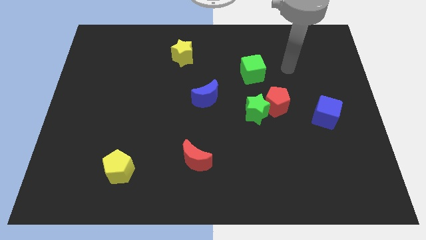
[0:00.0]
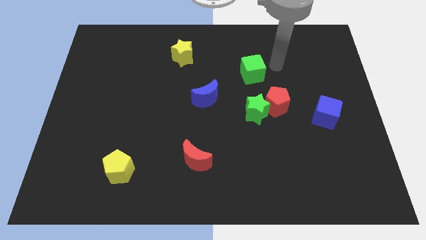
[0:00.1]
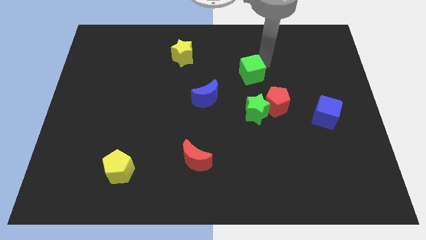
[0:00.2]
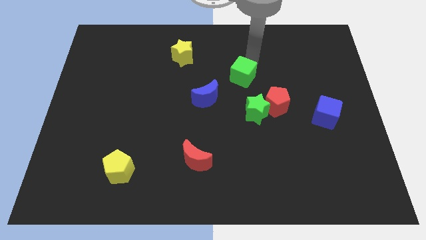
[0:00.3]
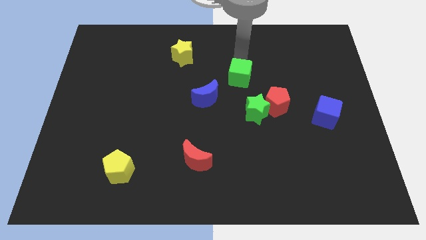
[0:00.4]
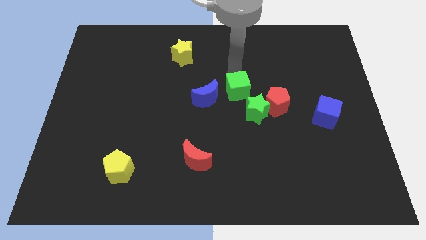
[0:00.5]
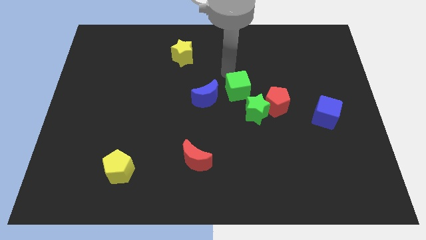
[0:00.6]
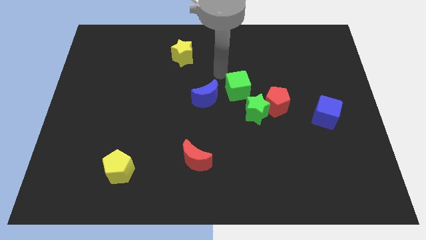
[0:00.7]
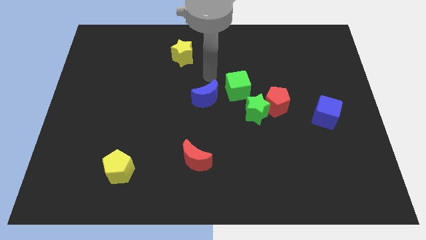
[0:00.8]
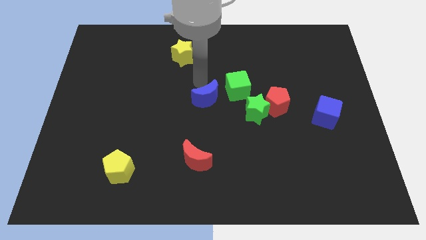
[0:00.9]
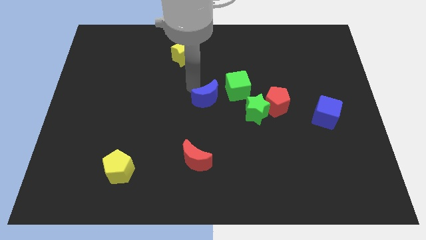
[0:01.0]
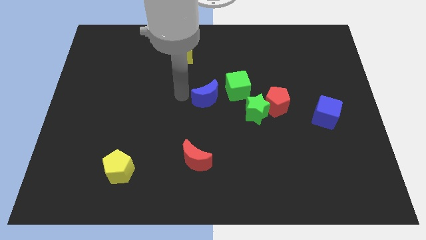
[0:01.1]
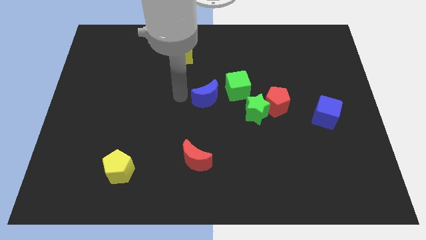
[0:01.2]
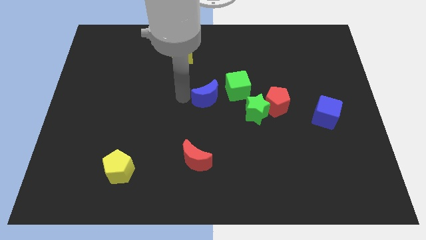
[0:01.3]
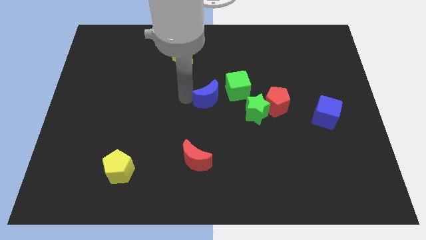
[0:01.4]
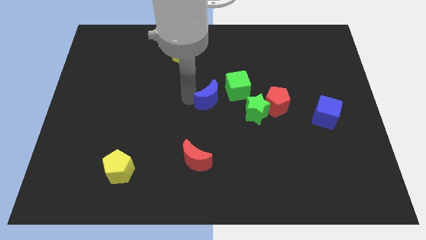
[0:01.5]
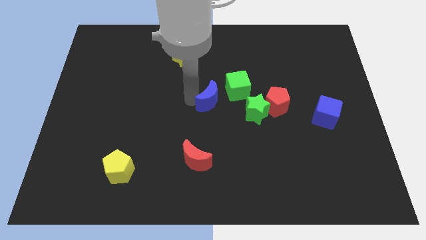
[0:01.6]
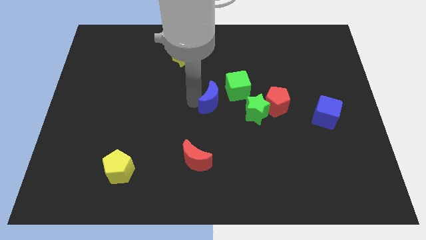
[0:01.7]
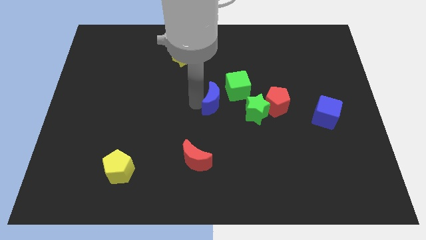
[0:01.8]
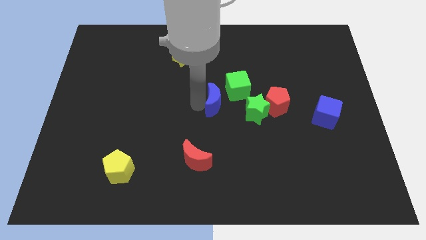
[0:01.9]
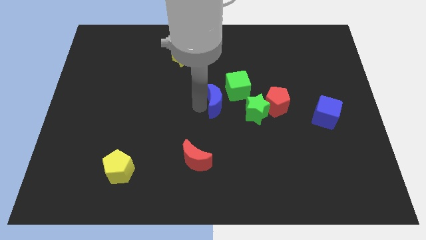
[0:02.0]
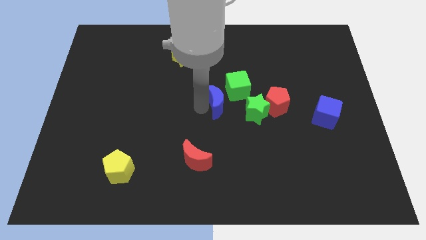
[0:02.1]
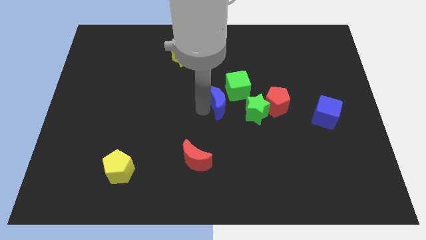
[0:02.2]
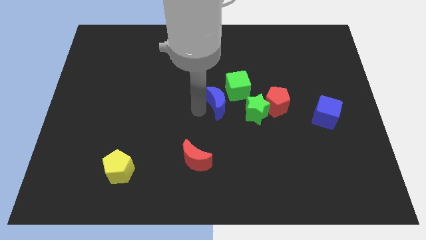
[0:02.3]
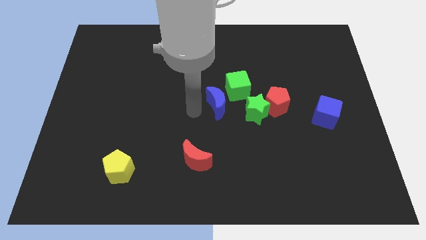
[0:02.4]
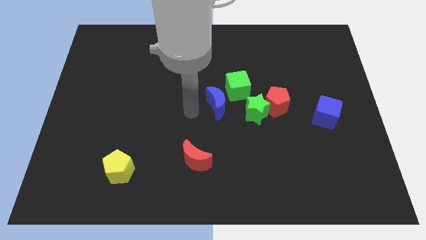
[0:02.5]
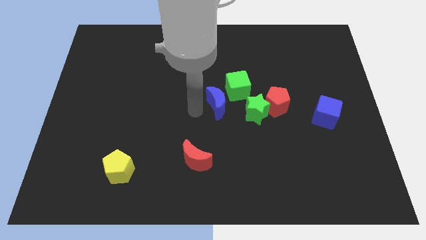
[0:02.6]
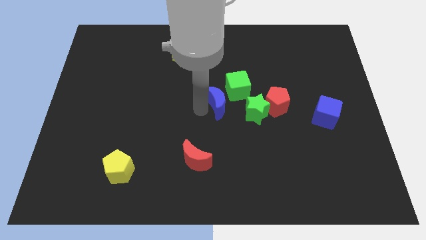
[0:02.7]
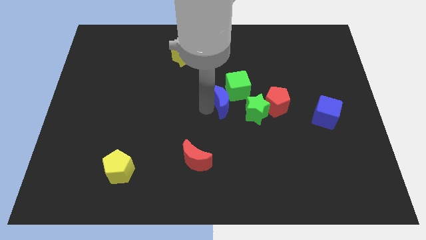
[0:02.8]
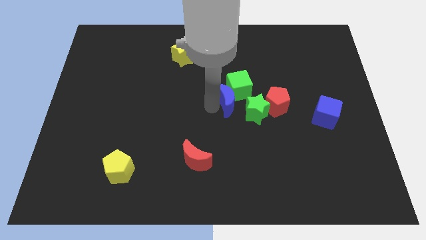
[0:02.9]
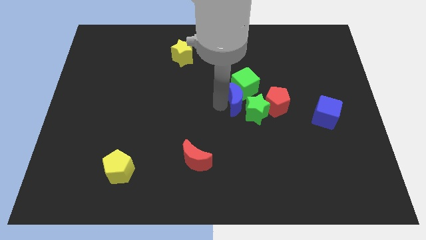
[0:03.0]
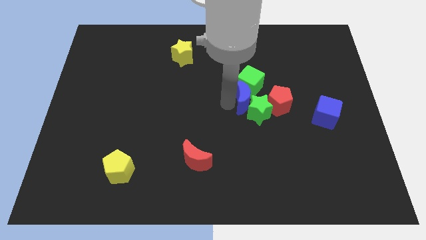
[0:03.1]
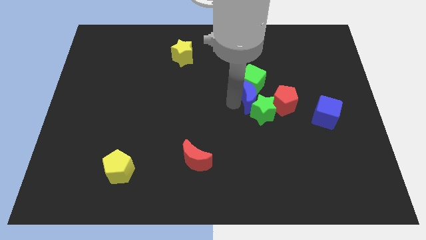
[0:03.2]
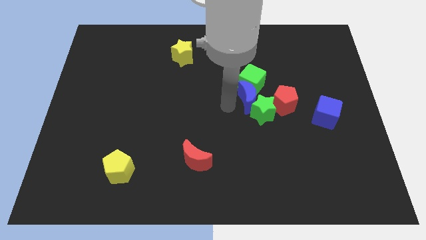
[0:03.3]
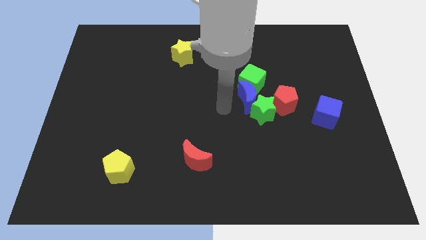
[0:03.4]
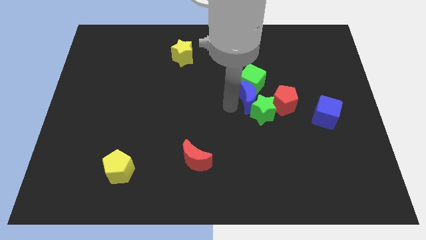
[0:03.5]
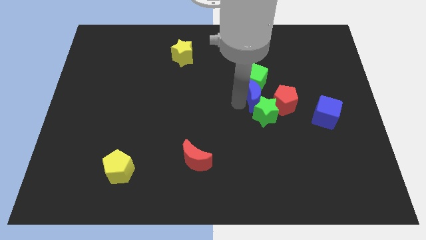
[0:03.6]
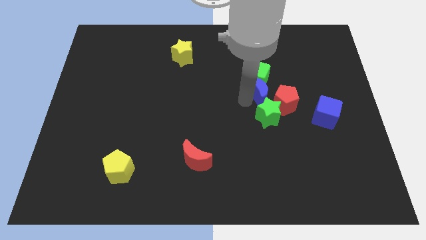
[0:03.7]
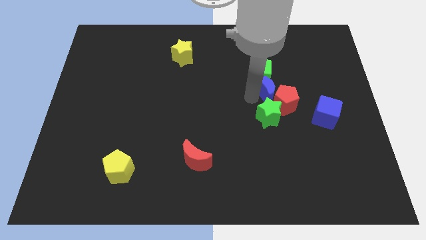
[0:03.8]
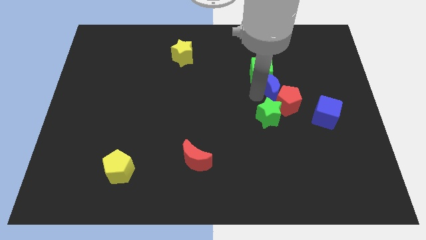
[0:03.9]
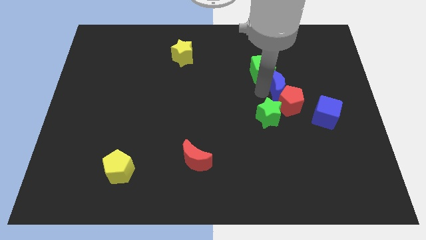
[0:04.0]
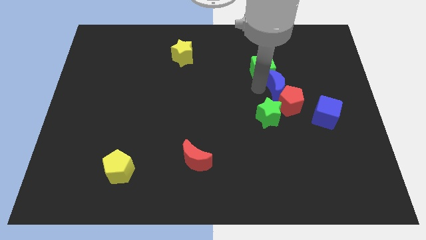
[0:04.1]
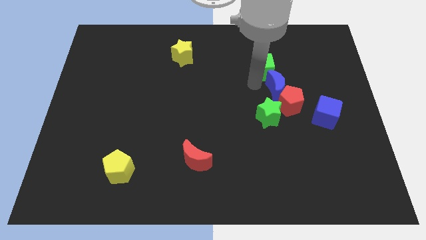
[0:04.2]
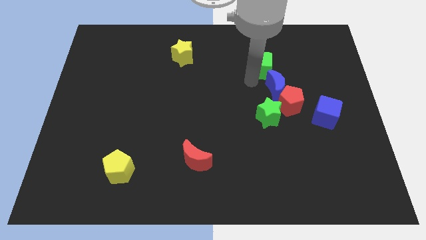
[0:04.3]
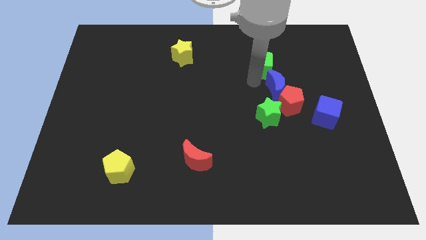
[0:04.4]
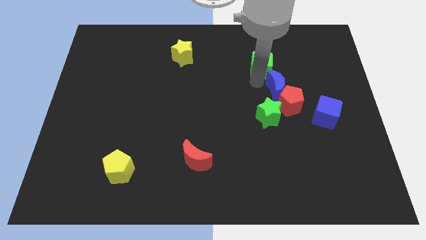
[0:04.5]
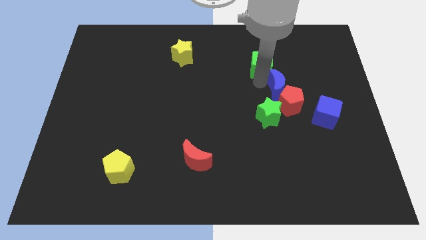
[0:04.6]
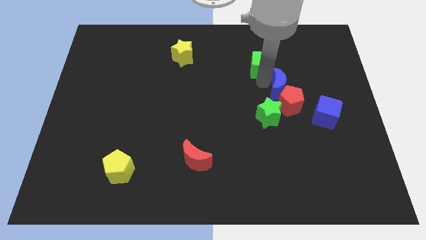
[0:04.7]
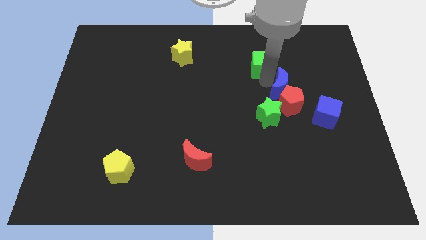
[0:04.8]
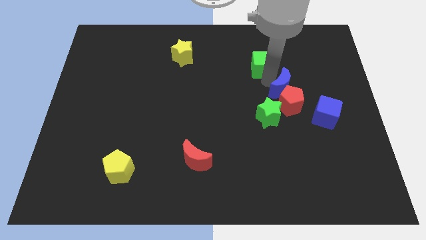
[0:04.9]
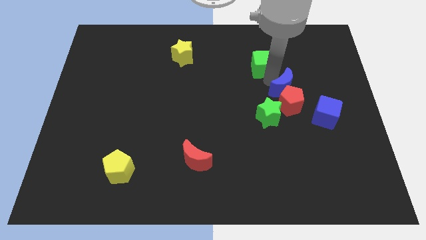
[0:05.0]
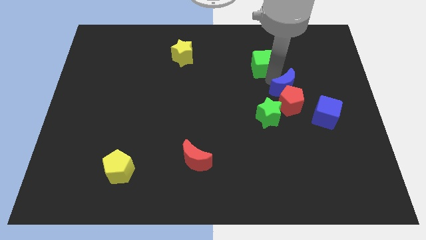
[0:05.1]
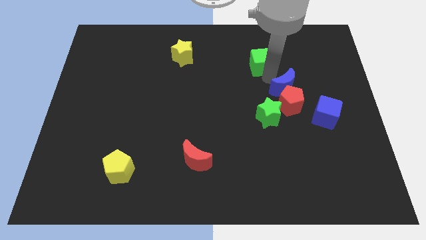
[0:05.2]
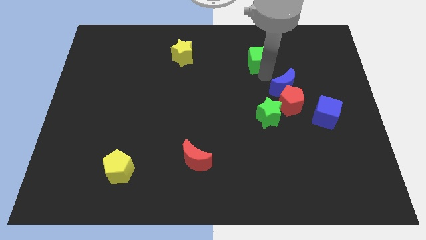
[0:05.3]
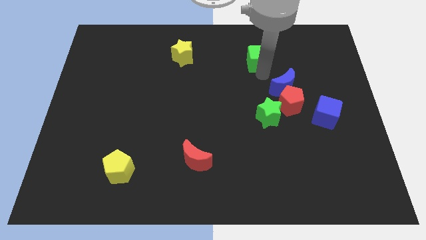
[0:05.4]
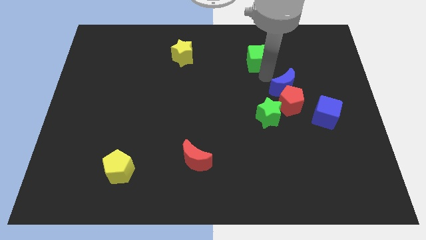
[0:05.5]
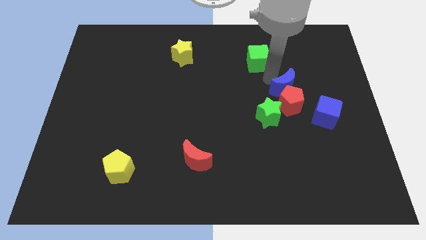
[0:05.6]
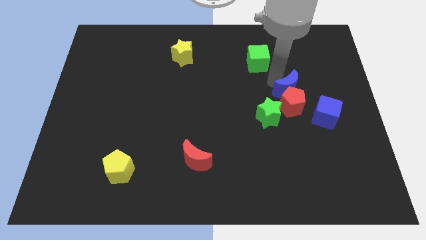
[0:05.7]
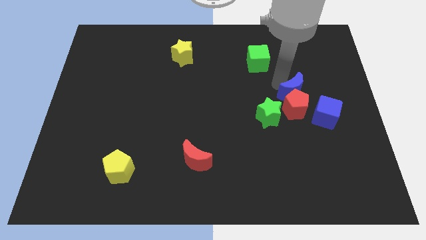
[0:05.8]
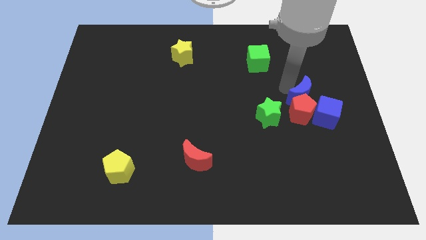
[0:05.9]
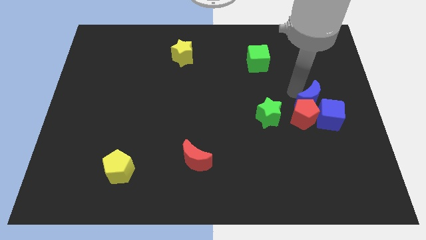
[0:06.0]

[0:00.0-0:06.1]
put the blue moon close to the blue cube

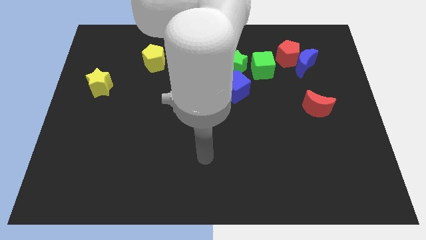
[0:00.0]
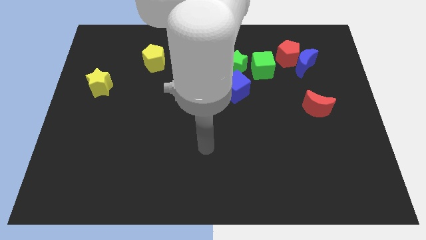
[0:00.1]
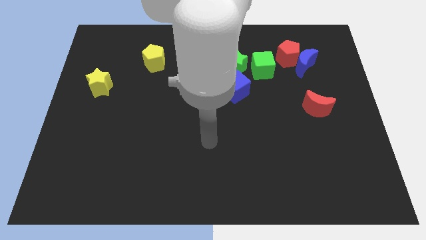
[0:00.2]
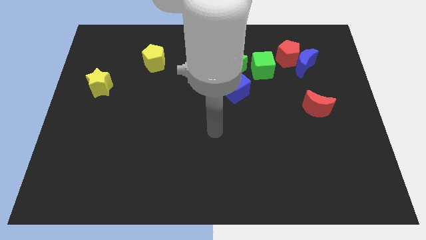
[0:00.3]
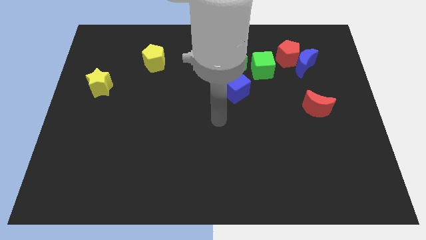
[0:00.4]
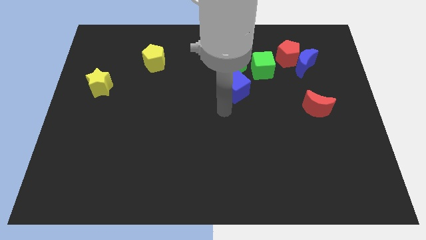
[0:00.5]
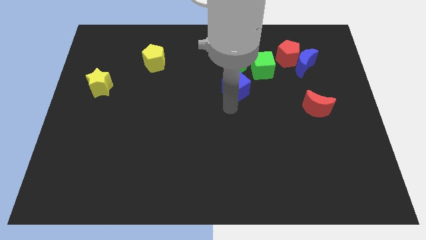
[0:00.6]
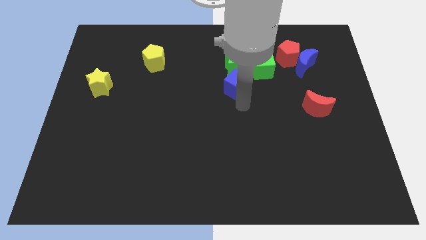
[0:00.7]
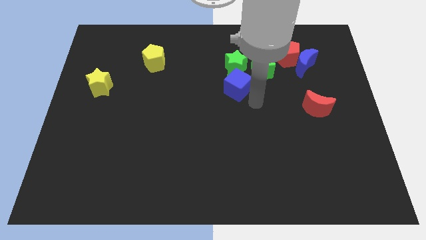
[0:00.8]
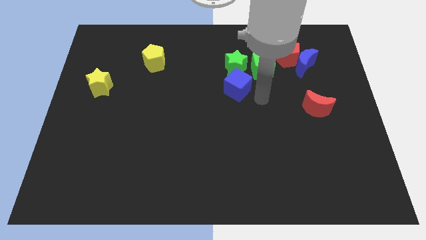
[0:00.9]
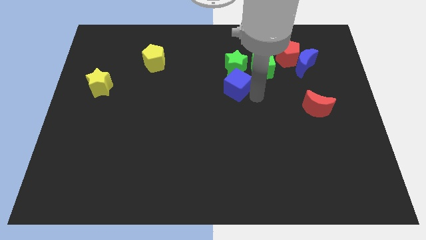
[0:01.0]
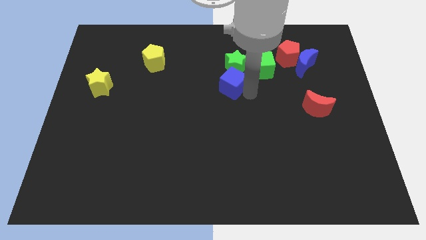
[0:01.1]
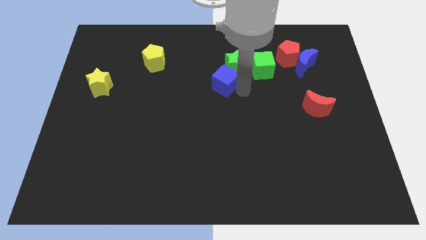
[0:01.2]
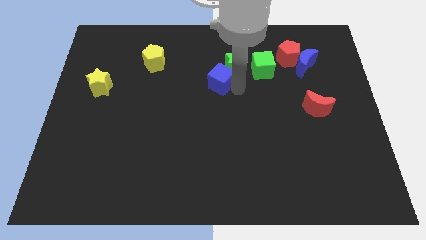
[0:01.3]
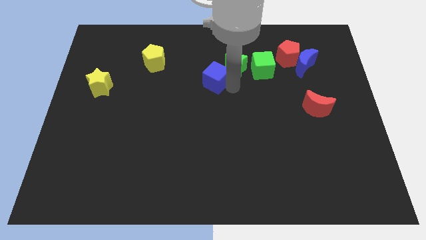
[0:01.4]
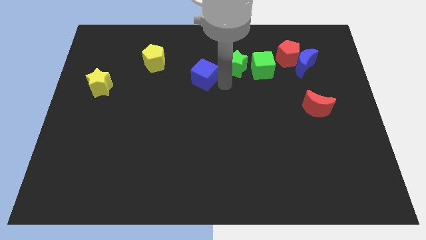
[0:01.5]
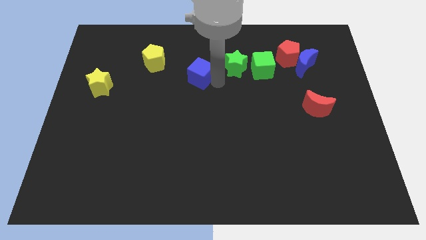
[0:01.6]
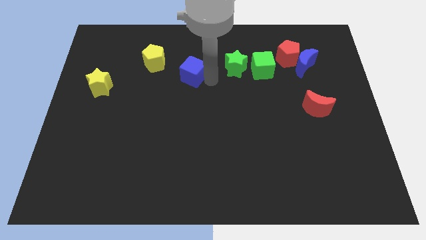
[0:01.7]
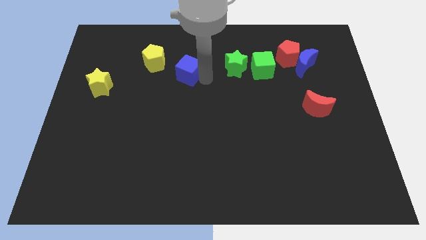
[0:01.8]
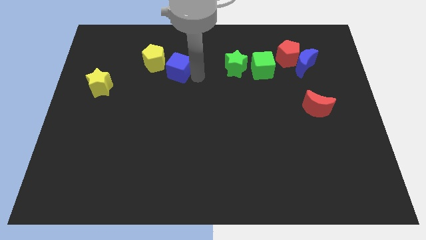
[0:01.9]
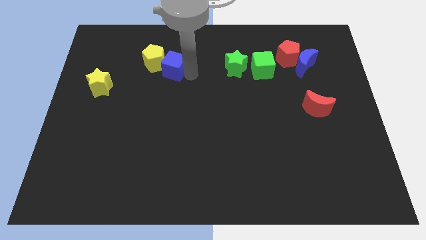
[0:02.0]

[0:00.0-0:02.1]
slide the blue cube to the yellow pentagon
